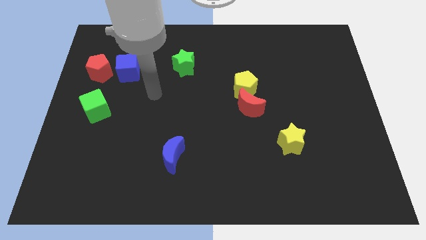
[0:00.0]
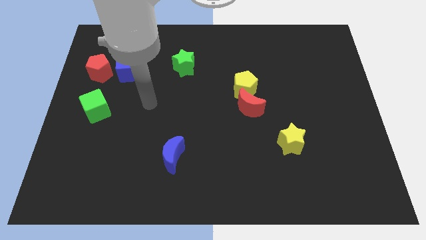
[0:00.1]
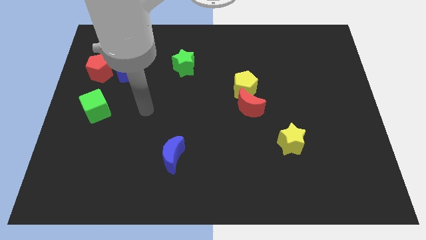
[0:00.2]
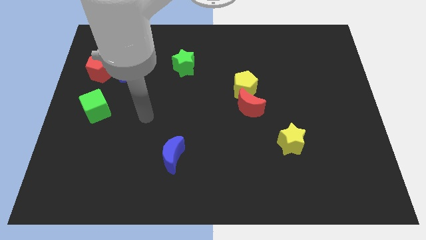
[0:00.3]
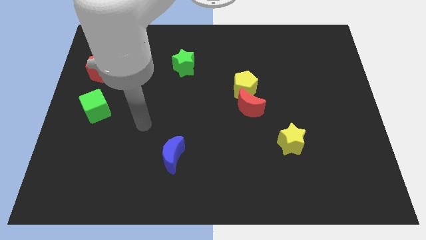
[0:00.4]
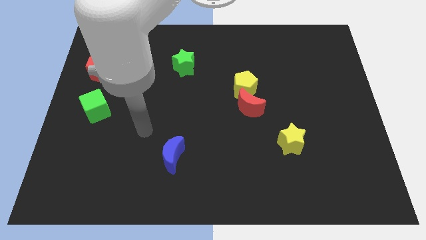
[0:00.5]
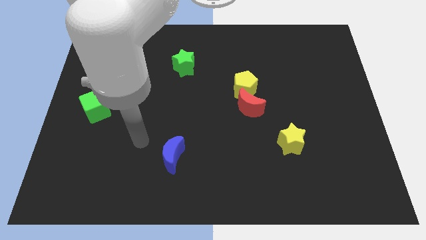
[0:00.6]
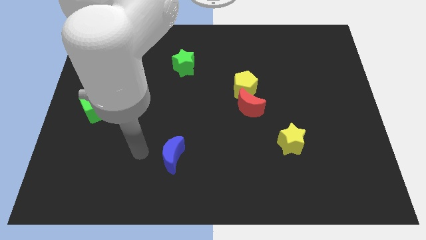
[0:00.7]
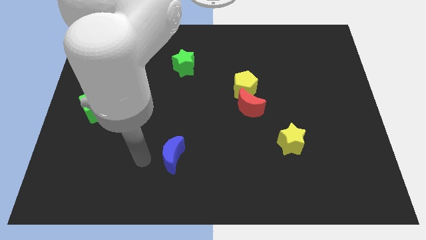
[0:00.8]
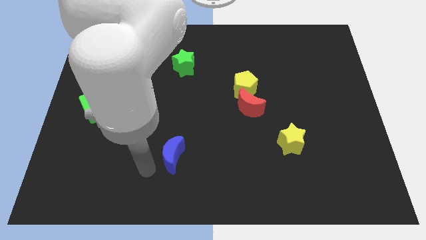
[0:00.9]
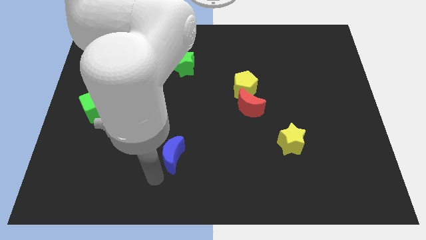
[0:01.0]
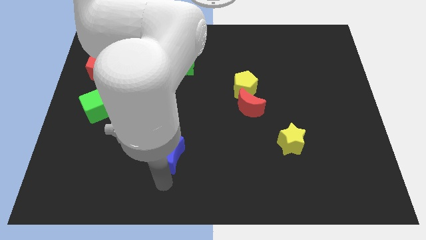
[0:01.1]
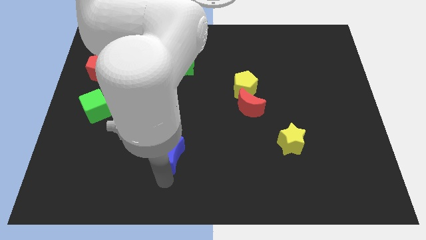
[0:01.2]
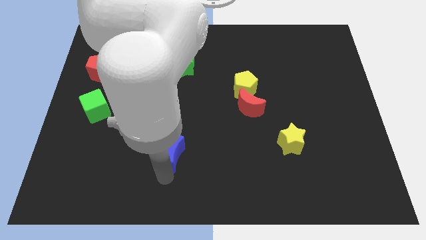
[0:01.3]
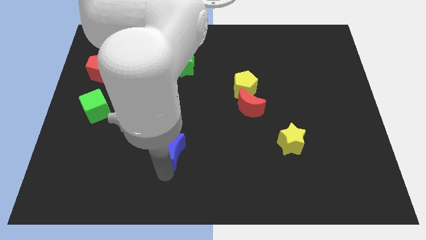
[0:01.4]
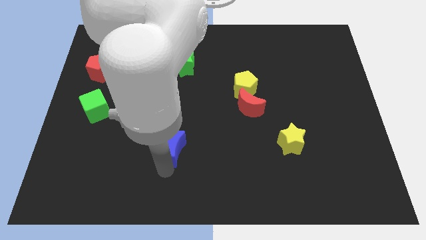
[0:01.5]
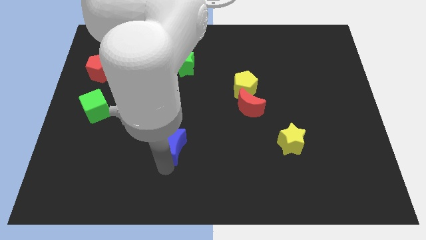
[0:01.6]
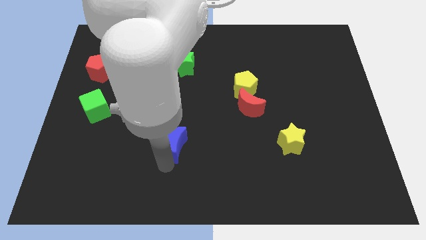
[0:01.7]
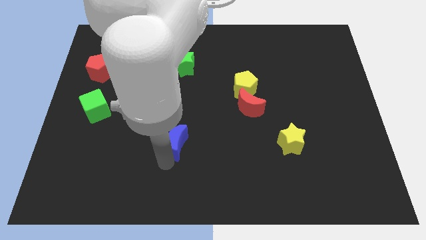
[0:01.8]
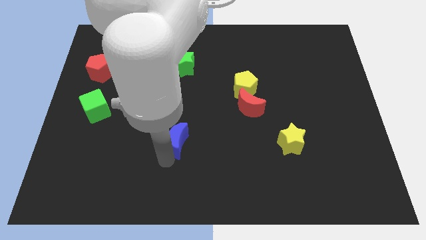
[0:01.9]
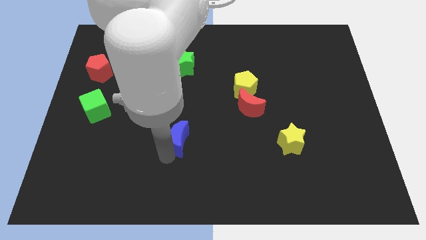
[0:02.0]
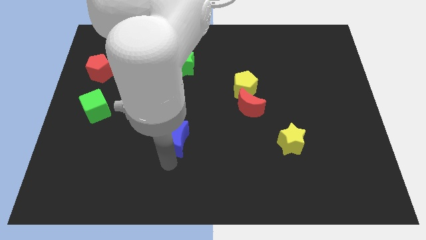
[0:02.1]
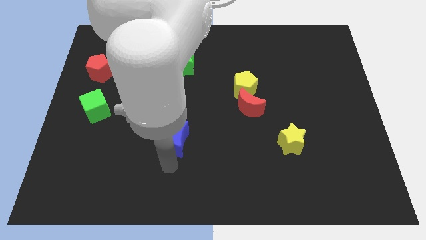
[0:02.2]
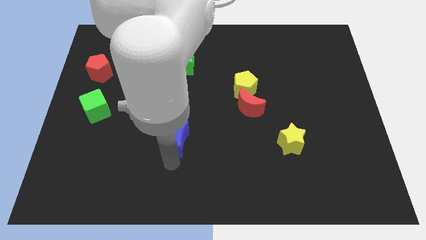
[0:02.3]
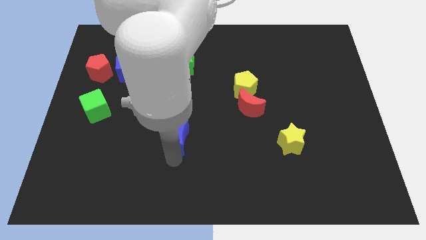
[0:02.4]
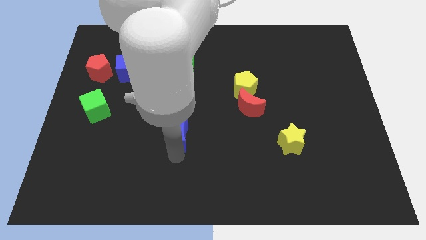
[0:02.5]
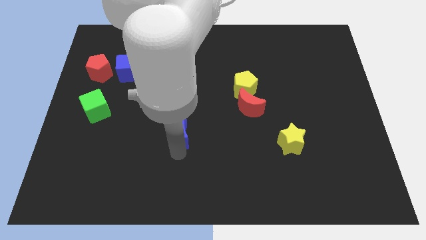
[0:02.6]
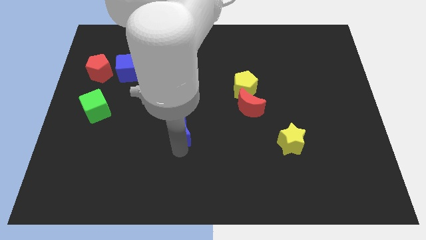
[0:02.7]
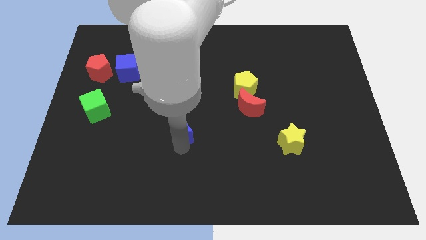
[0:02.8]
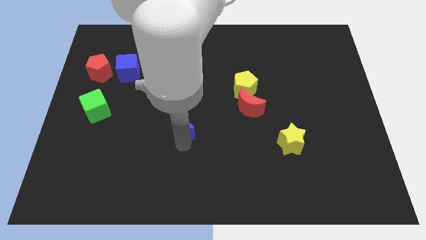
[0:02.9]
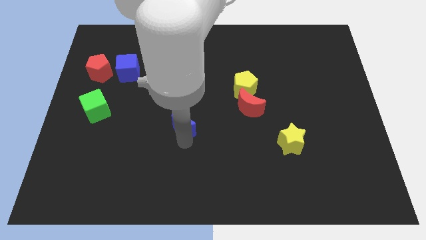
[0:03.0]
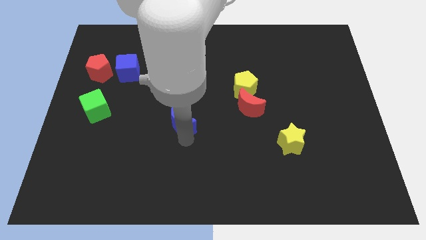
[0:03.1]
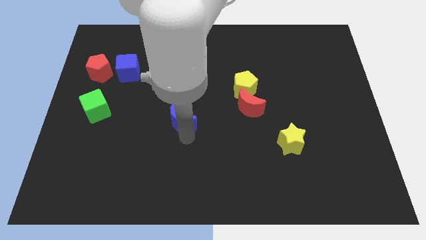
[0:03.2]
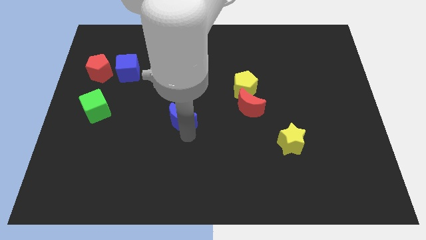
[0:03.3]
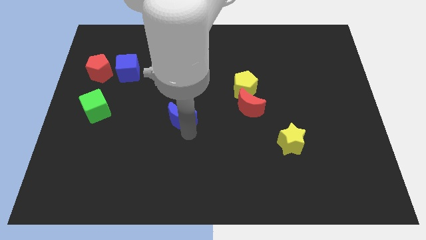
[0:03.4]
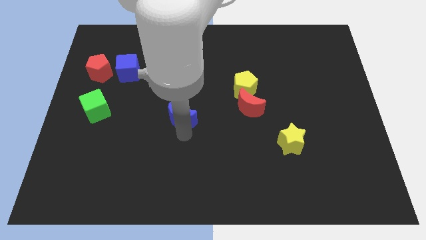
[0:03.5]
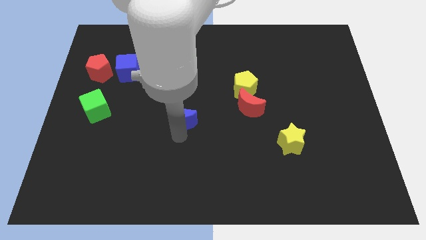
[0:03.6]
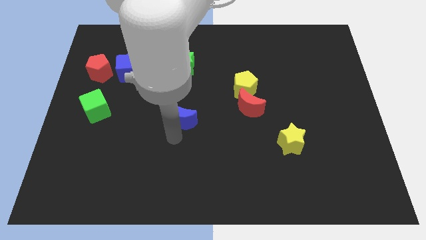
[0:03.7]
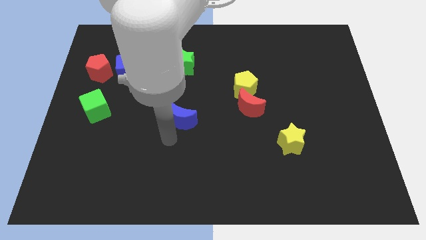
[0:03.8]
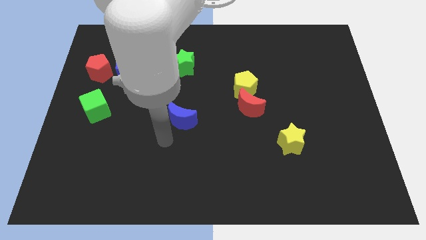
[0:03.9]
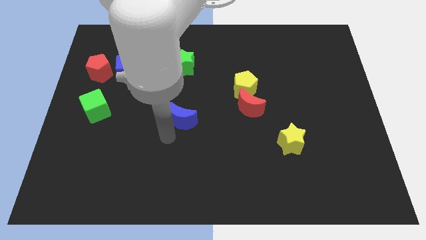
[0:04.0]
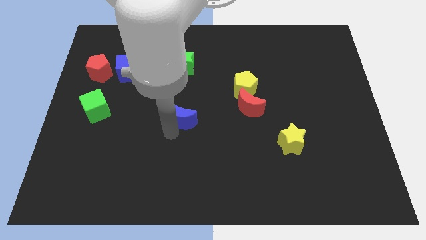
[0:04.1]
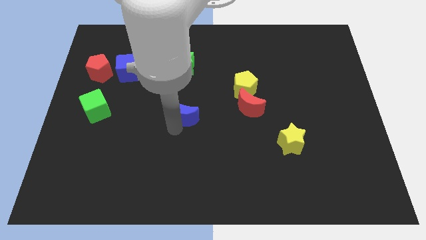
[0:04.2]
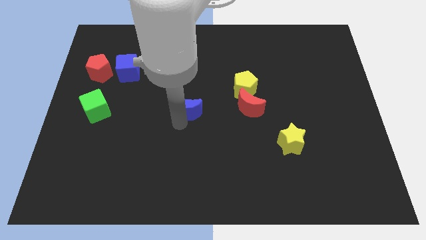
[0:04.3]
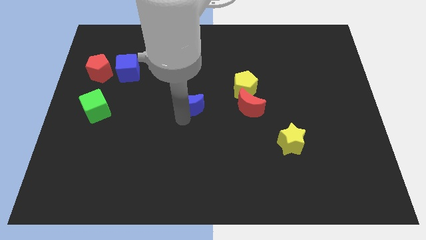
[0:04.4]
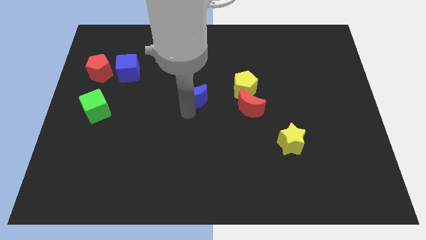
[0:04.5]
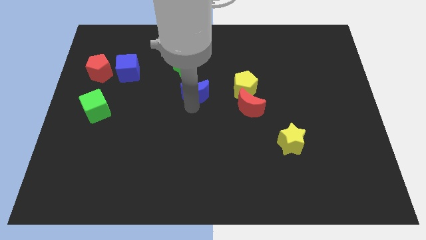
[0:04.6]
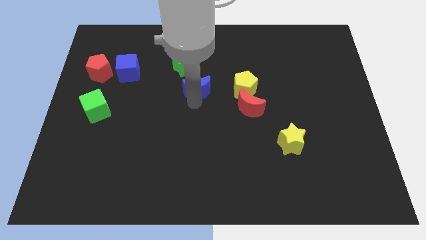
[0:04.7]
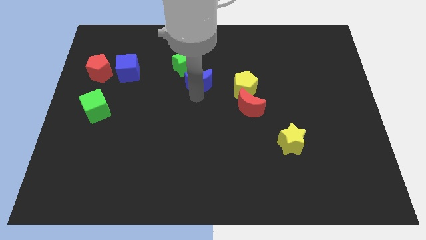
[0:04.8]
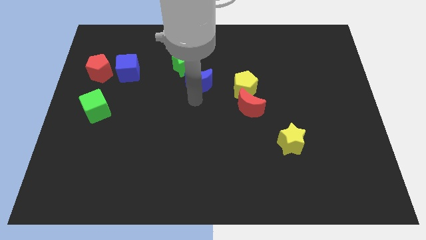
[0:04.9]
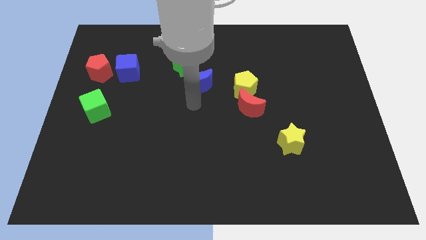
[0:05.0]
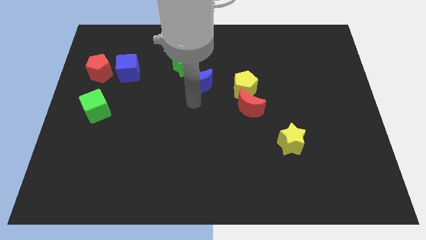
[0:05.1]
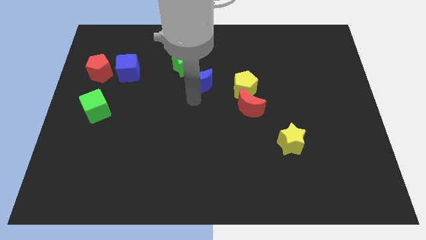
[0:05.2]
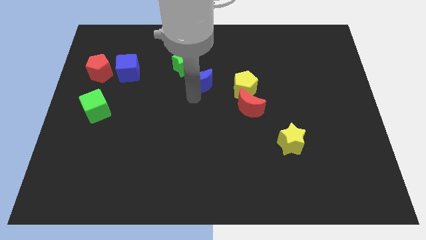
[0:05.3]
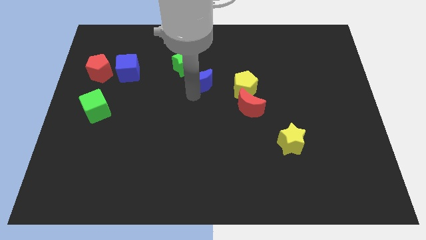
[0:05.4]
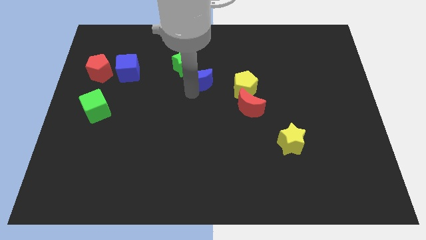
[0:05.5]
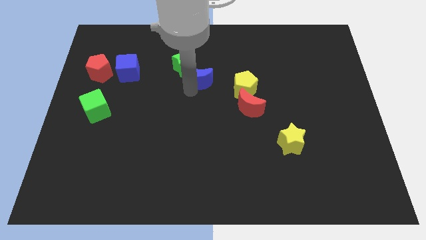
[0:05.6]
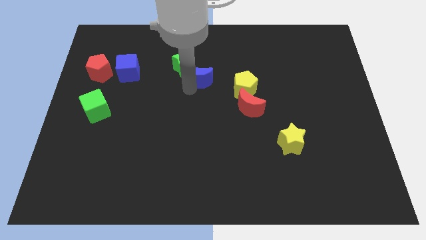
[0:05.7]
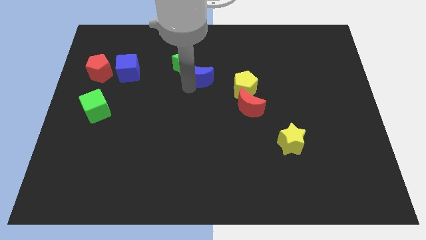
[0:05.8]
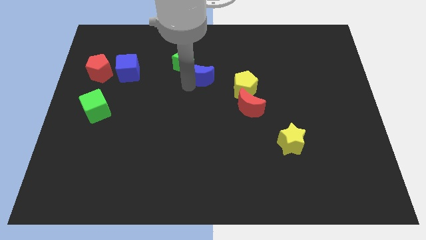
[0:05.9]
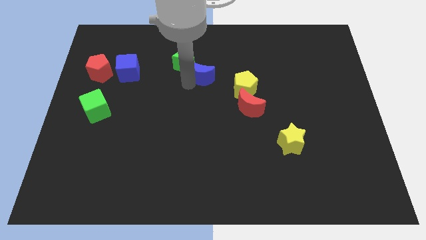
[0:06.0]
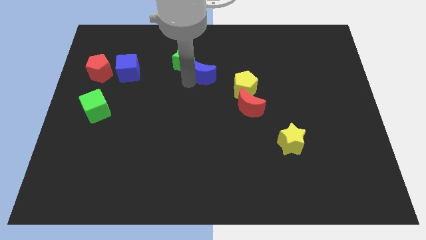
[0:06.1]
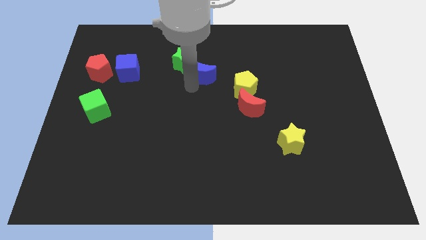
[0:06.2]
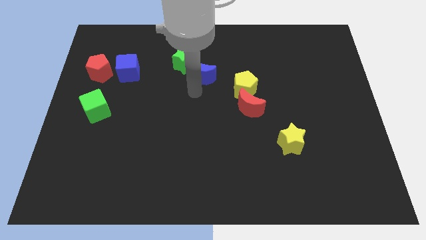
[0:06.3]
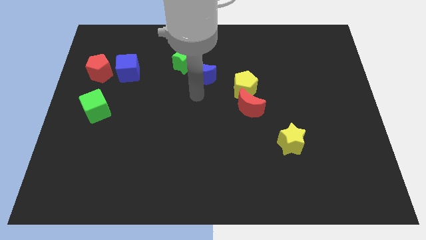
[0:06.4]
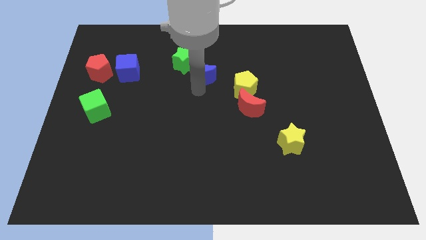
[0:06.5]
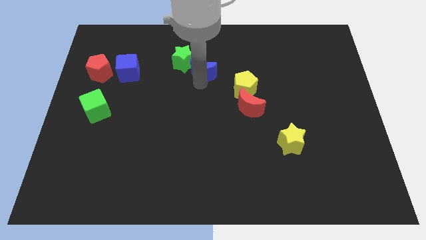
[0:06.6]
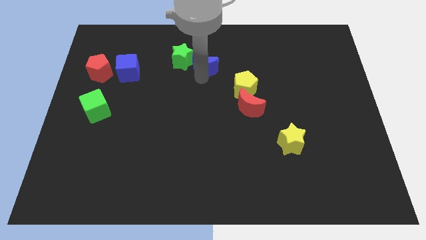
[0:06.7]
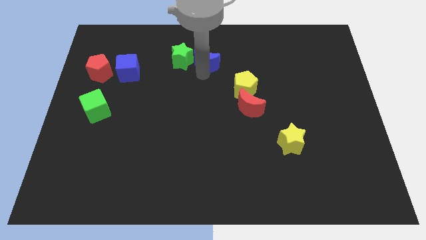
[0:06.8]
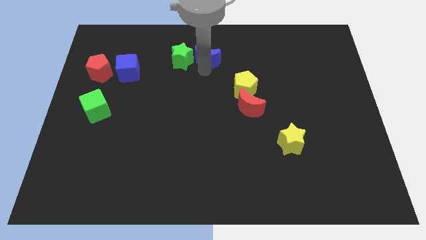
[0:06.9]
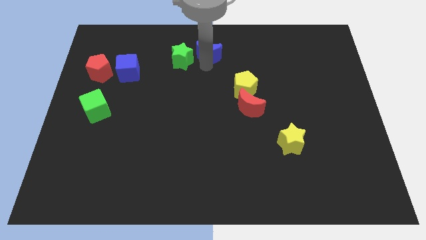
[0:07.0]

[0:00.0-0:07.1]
push the blue moon to the top side
